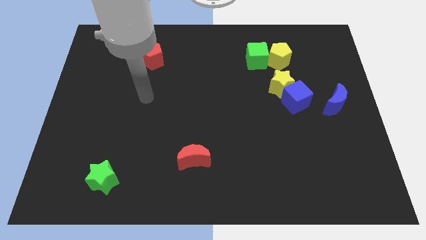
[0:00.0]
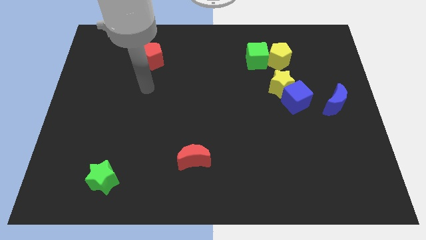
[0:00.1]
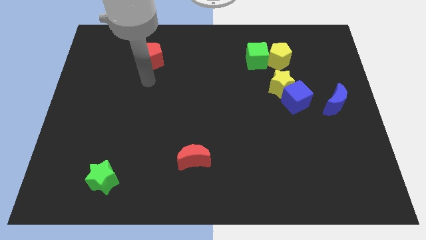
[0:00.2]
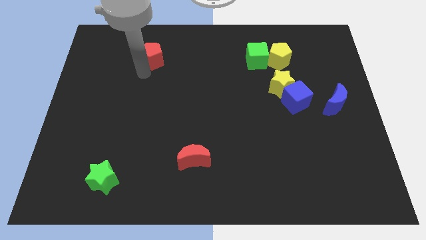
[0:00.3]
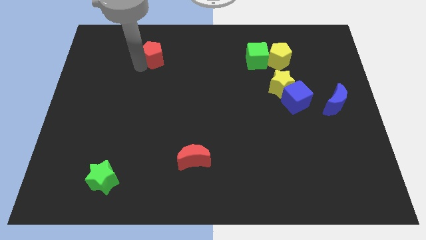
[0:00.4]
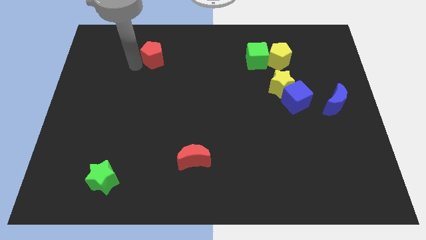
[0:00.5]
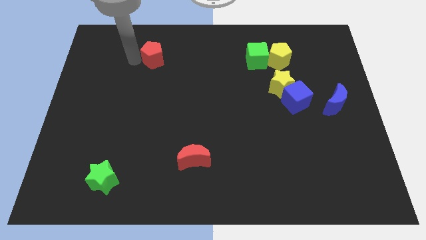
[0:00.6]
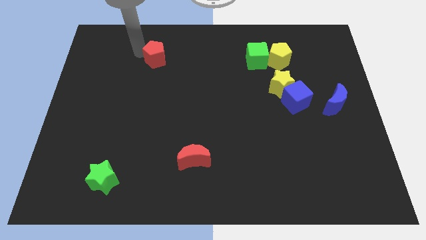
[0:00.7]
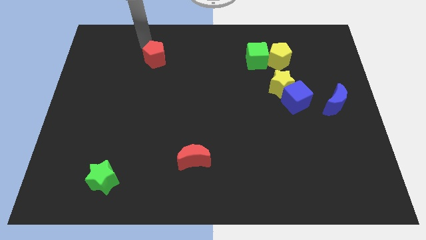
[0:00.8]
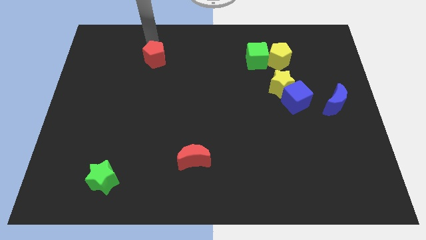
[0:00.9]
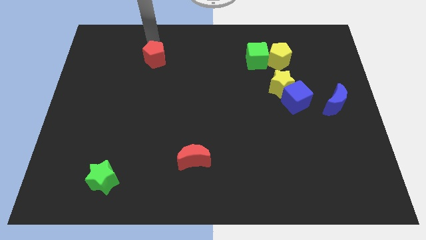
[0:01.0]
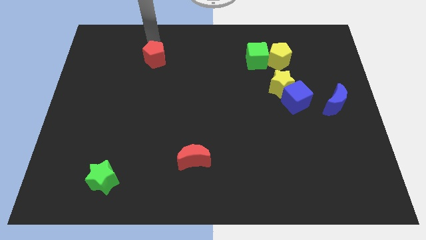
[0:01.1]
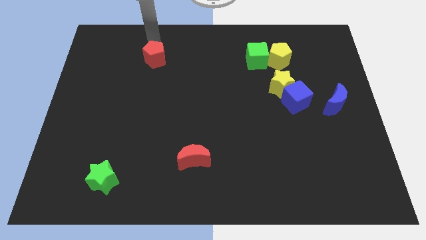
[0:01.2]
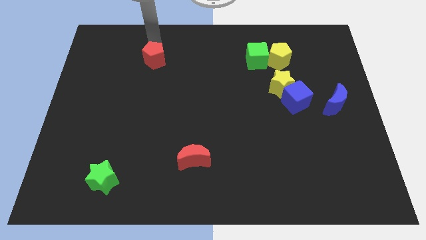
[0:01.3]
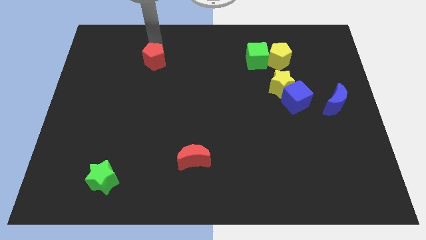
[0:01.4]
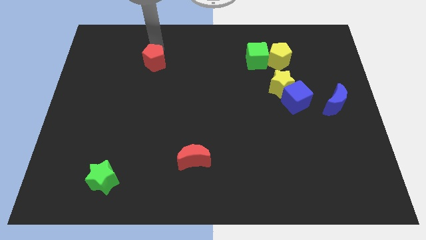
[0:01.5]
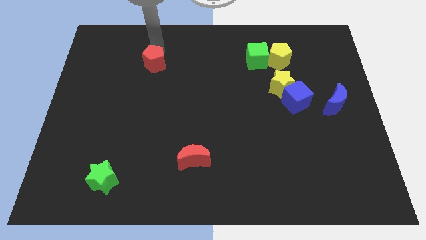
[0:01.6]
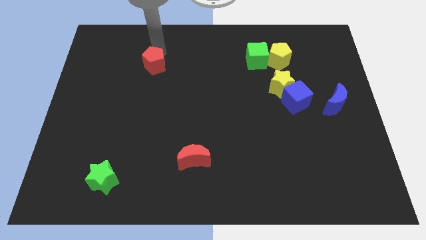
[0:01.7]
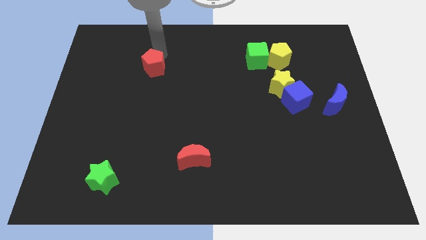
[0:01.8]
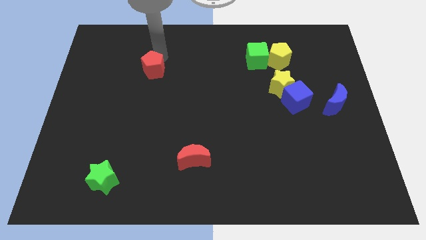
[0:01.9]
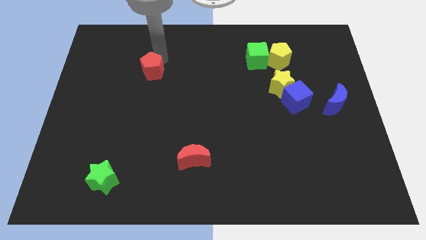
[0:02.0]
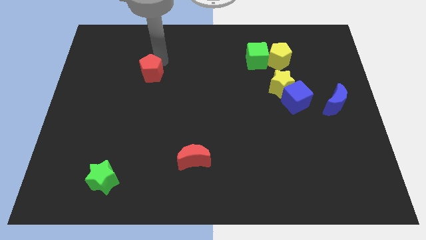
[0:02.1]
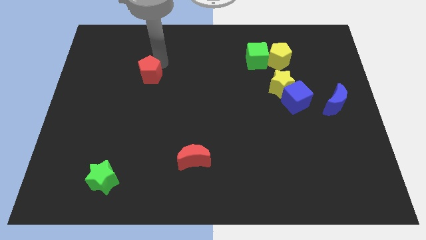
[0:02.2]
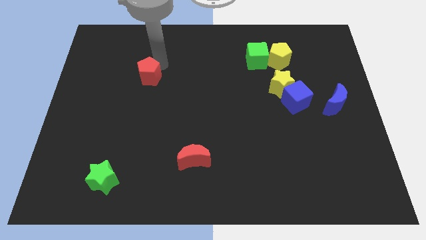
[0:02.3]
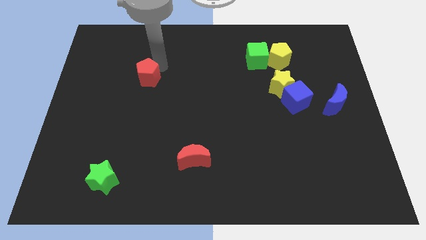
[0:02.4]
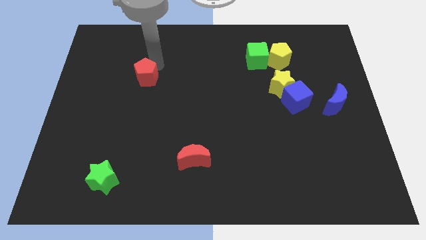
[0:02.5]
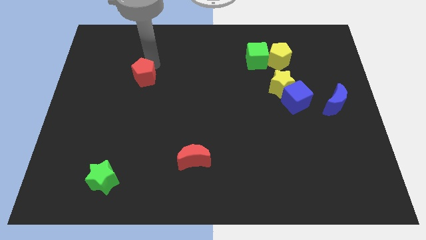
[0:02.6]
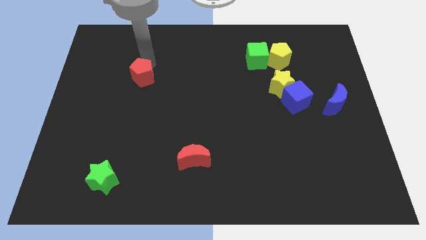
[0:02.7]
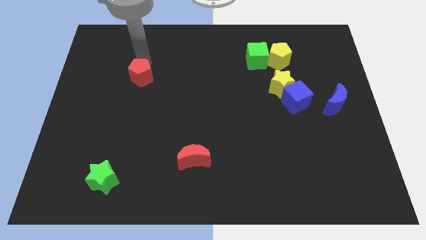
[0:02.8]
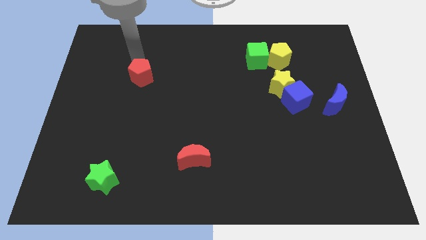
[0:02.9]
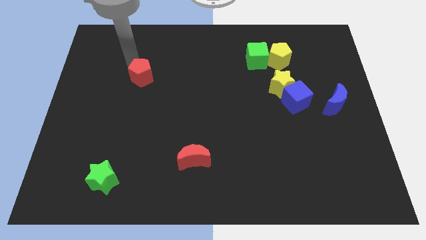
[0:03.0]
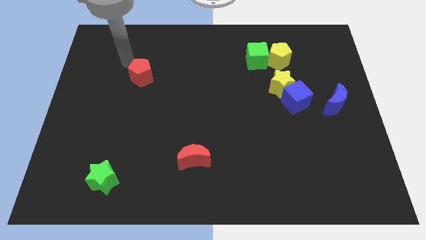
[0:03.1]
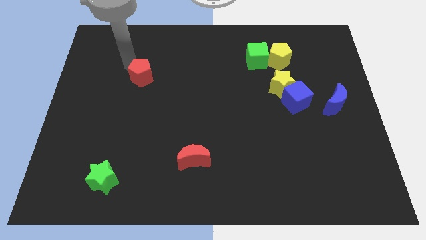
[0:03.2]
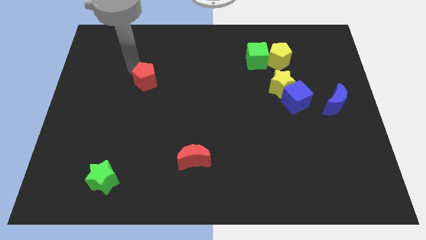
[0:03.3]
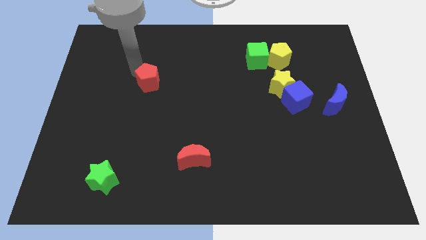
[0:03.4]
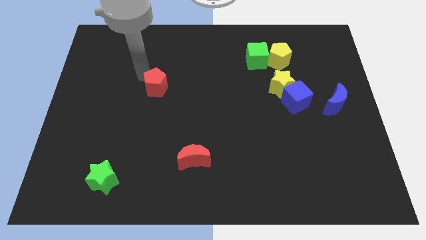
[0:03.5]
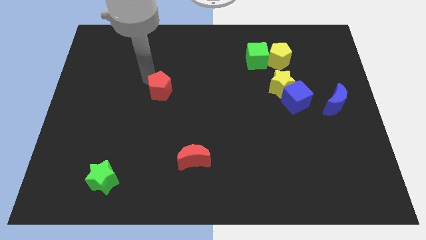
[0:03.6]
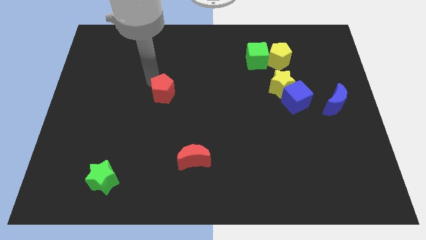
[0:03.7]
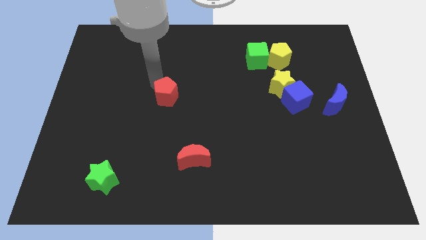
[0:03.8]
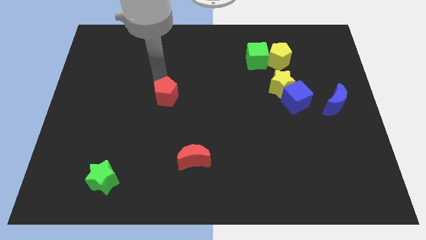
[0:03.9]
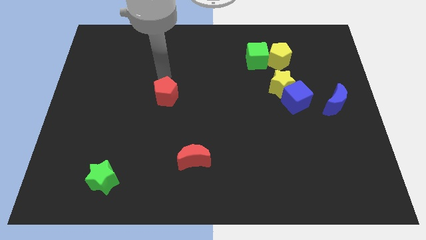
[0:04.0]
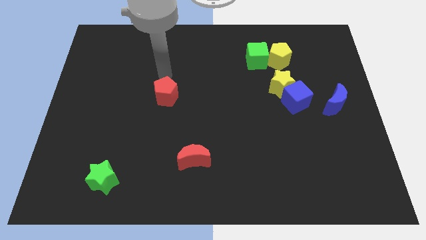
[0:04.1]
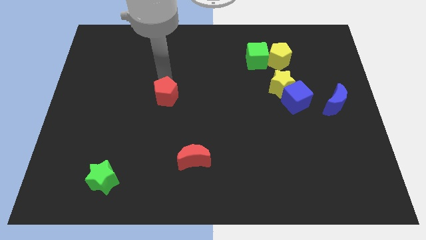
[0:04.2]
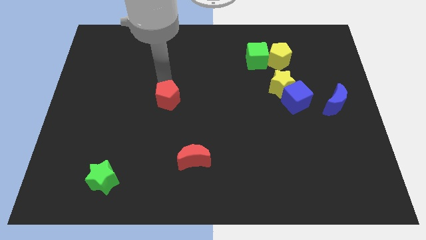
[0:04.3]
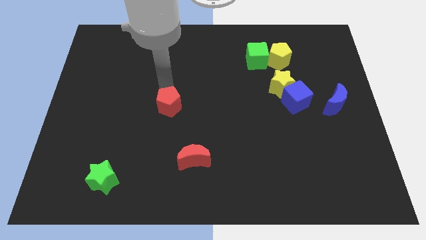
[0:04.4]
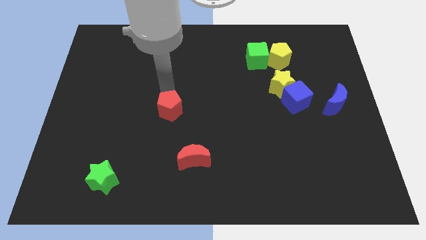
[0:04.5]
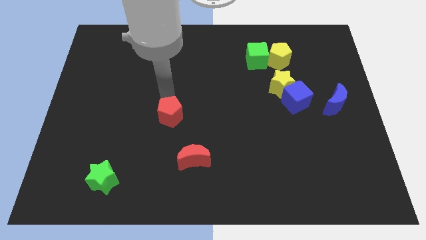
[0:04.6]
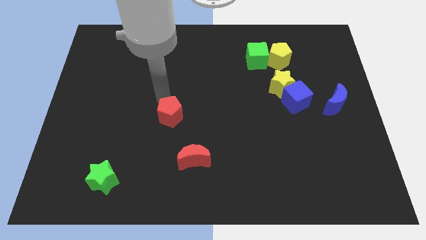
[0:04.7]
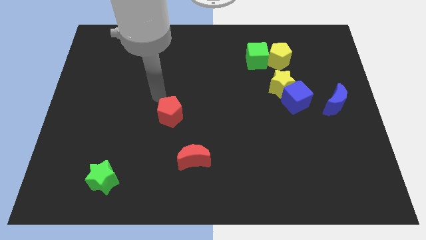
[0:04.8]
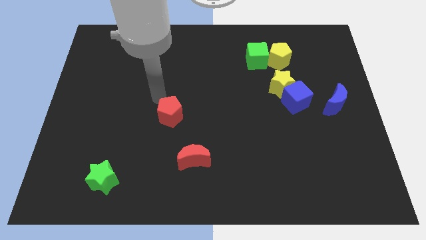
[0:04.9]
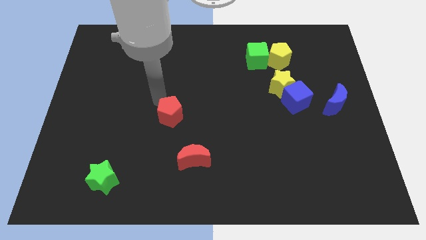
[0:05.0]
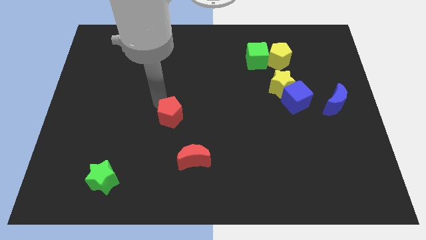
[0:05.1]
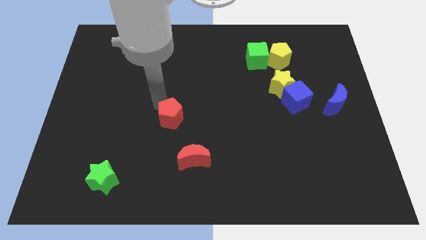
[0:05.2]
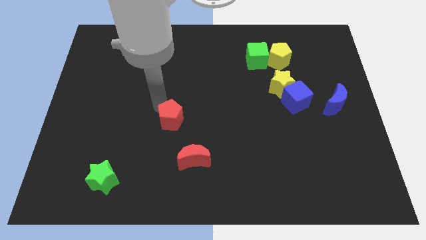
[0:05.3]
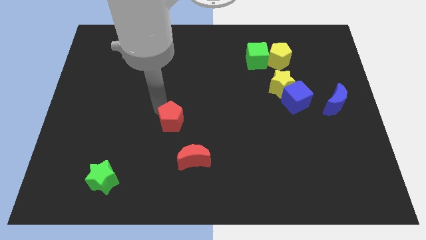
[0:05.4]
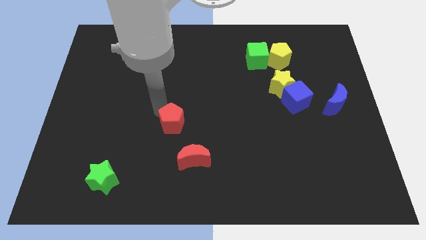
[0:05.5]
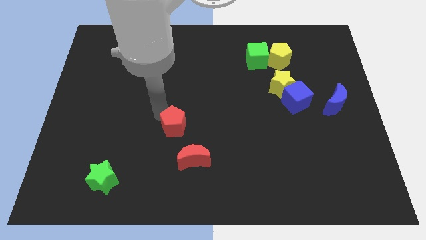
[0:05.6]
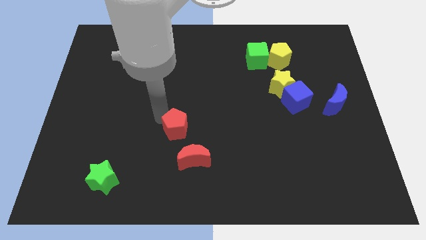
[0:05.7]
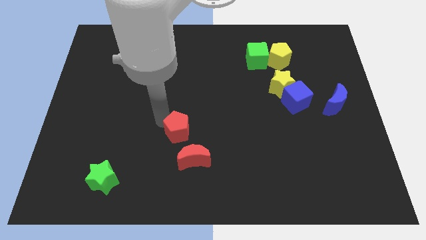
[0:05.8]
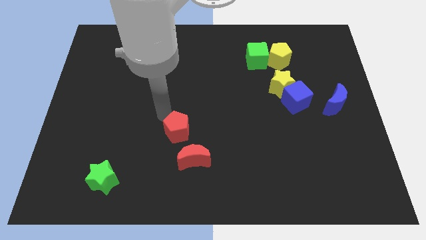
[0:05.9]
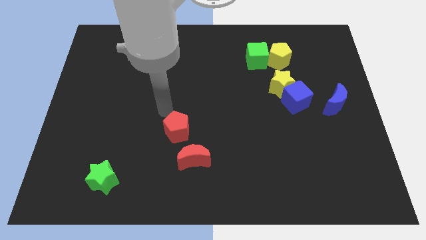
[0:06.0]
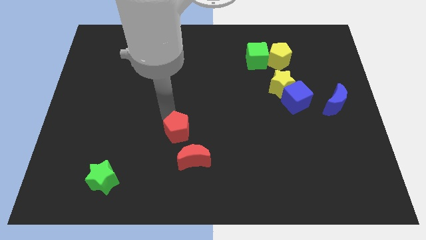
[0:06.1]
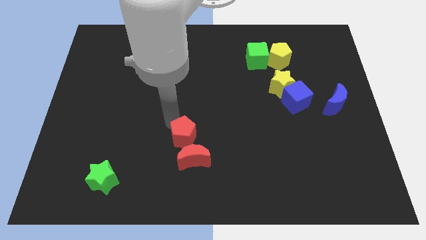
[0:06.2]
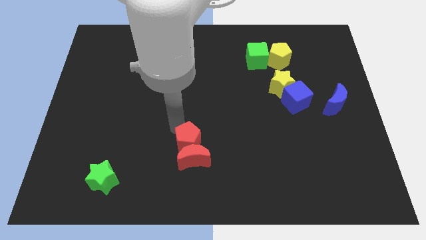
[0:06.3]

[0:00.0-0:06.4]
slide the red pentagon next to the red moon

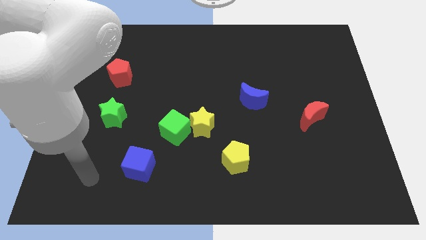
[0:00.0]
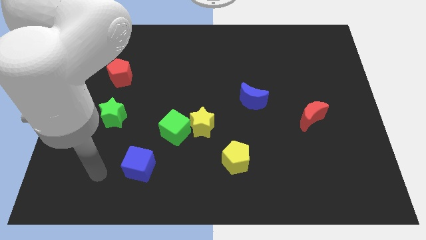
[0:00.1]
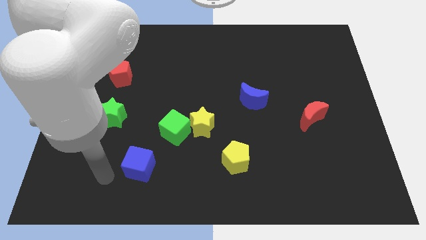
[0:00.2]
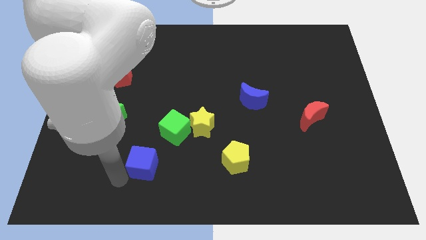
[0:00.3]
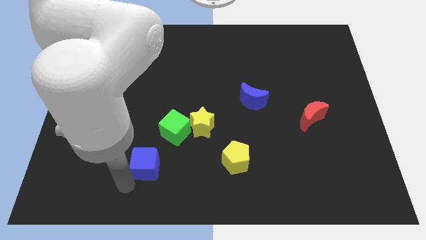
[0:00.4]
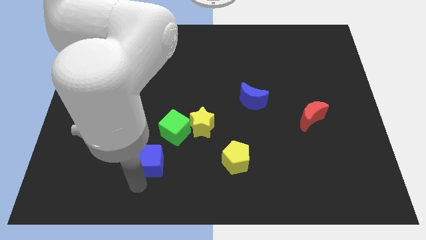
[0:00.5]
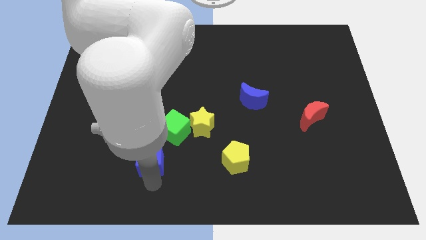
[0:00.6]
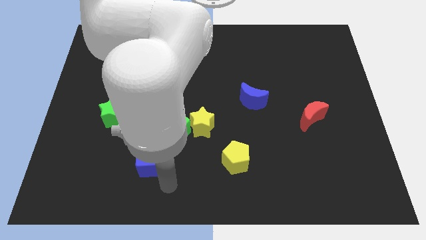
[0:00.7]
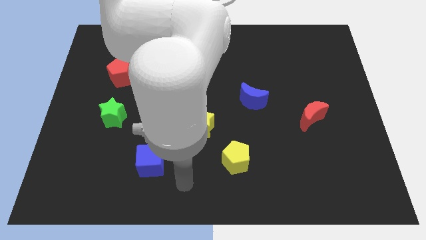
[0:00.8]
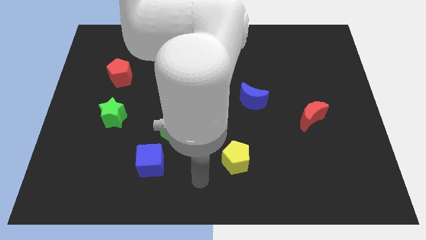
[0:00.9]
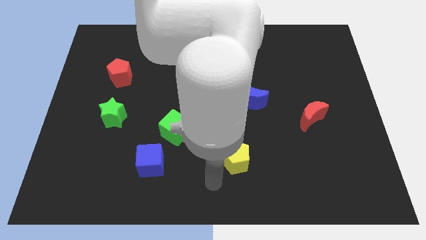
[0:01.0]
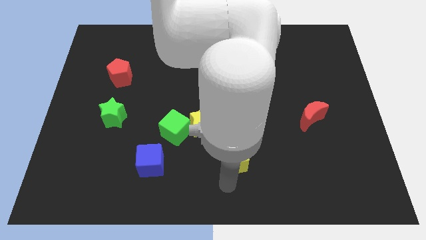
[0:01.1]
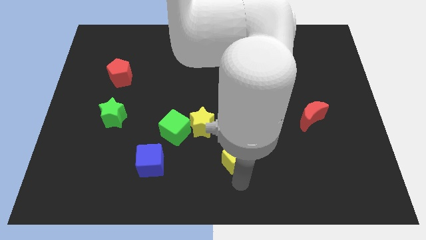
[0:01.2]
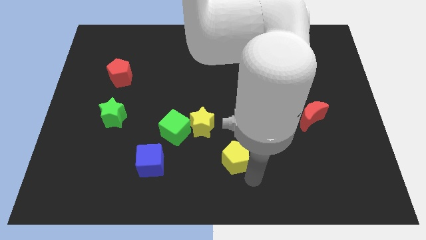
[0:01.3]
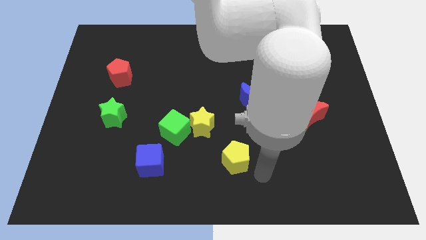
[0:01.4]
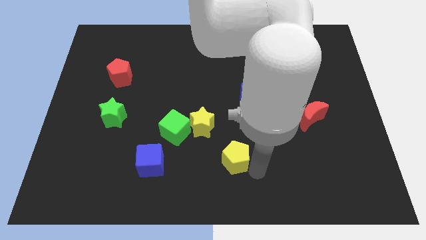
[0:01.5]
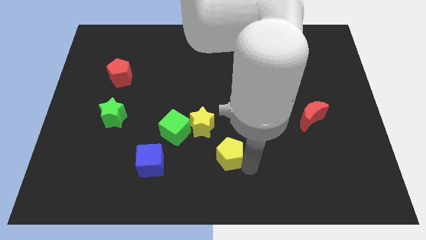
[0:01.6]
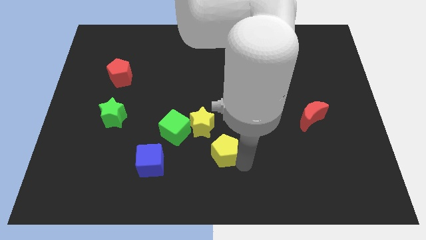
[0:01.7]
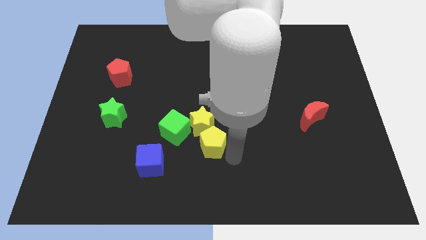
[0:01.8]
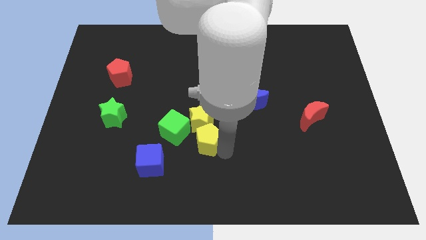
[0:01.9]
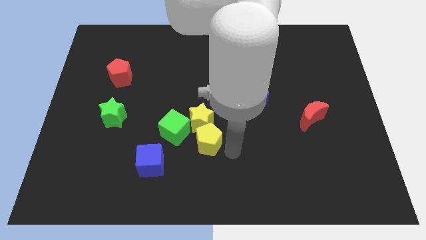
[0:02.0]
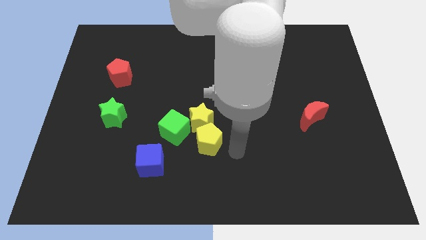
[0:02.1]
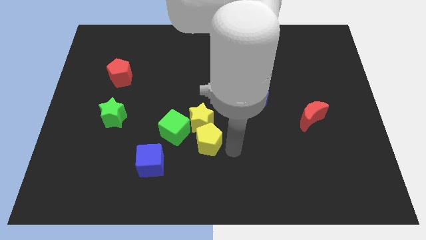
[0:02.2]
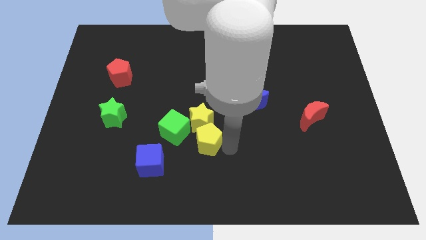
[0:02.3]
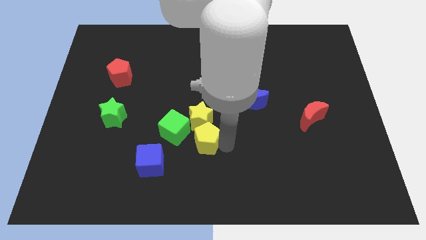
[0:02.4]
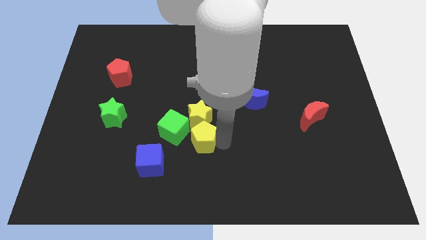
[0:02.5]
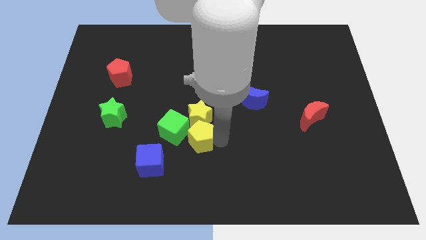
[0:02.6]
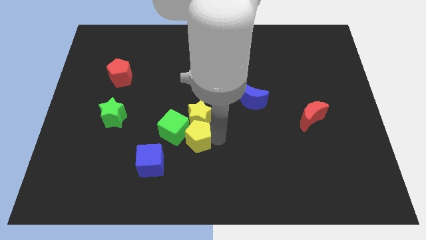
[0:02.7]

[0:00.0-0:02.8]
move the yellow pentagon to the green cube
